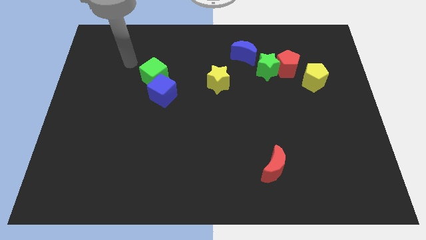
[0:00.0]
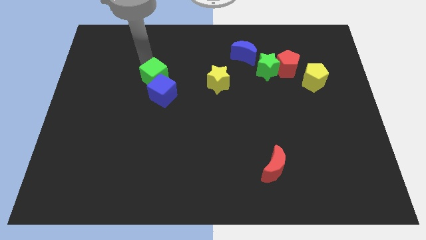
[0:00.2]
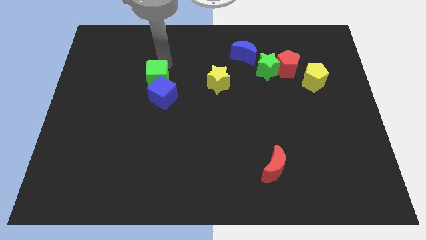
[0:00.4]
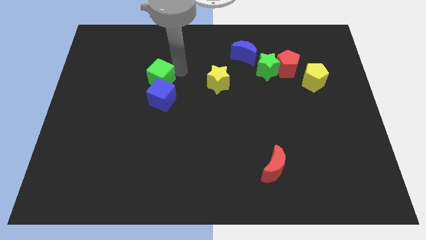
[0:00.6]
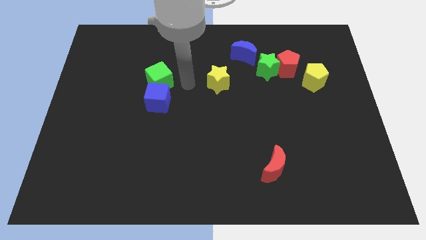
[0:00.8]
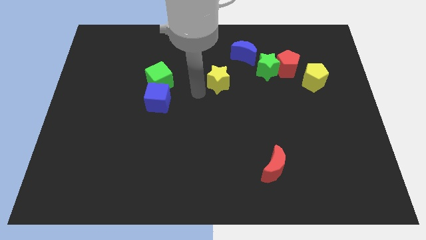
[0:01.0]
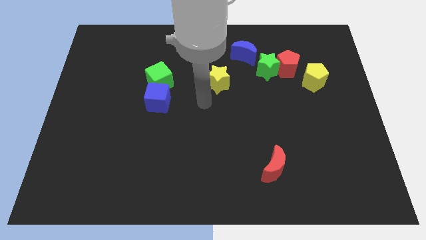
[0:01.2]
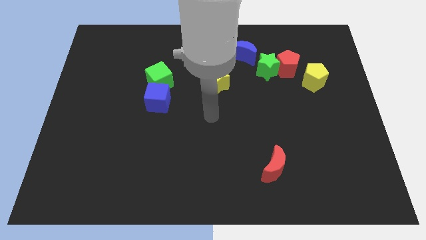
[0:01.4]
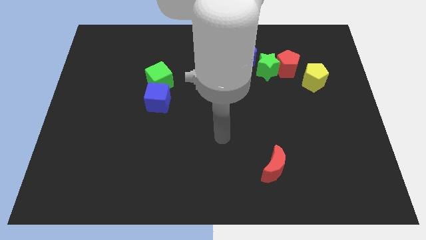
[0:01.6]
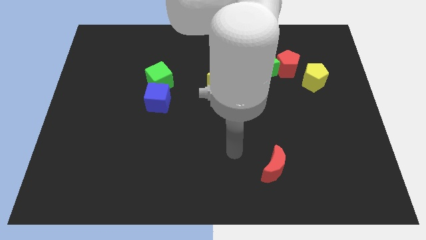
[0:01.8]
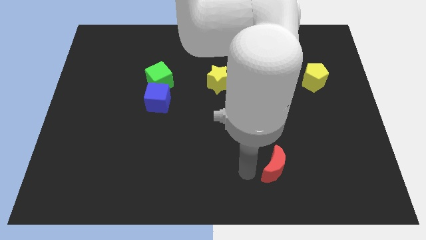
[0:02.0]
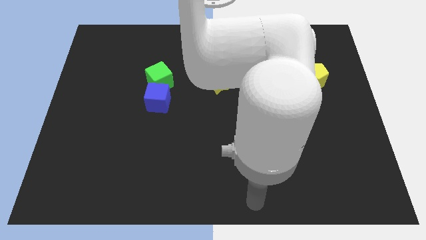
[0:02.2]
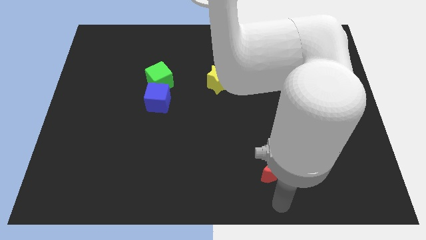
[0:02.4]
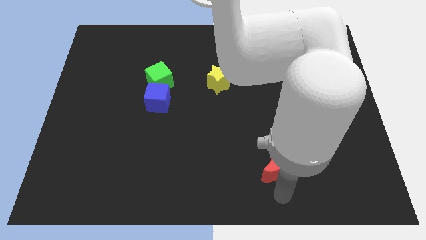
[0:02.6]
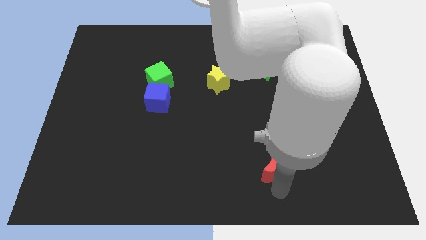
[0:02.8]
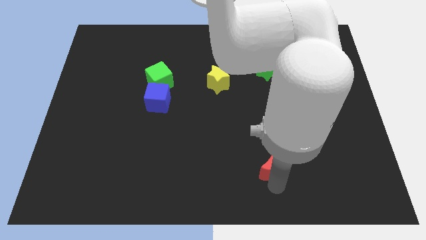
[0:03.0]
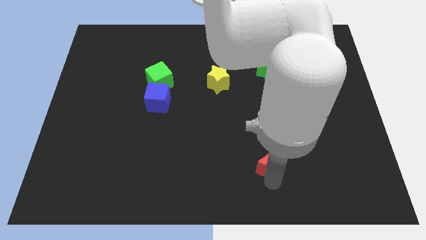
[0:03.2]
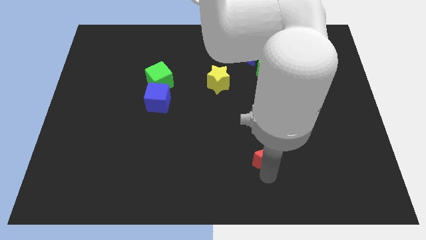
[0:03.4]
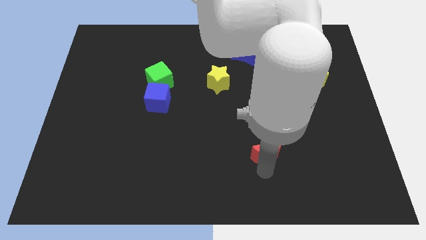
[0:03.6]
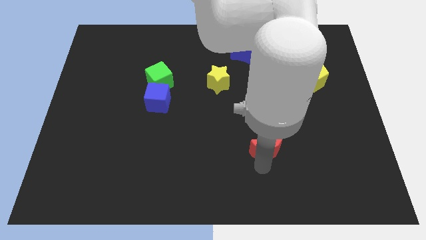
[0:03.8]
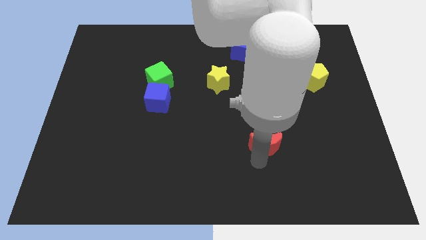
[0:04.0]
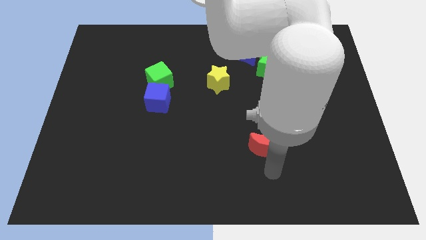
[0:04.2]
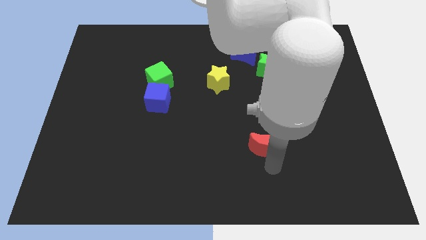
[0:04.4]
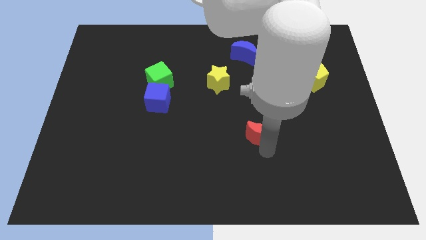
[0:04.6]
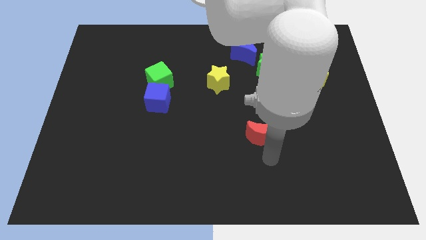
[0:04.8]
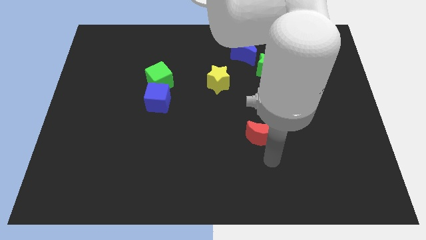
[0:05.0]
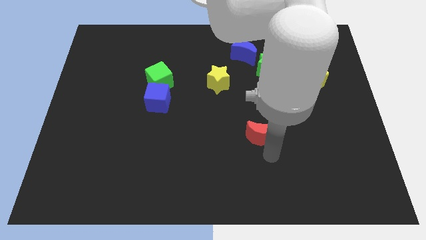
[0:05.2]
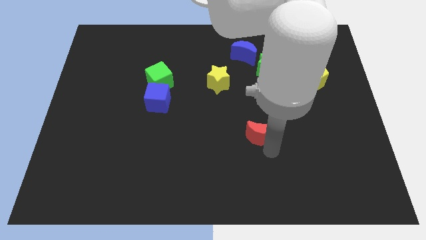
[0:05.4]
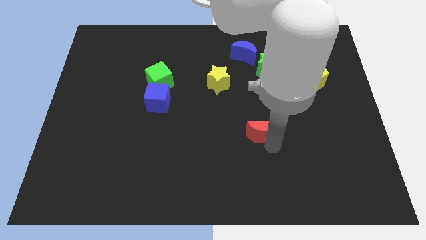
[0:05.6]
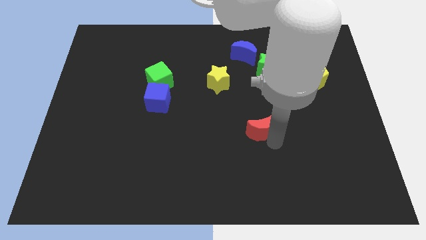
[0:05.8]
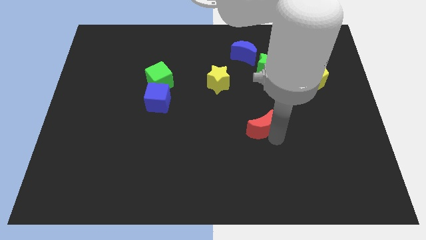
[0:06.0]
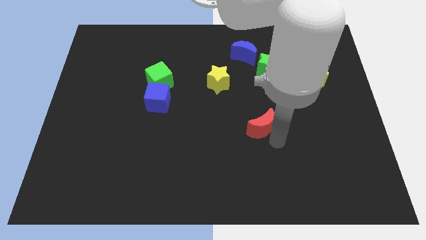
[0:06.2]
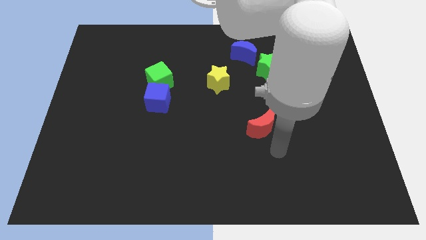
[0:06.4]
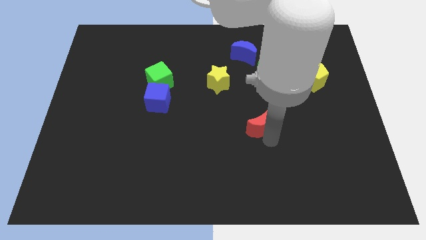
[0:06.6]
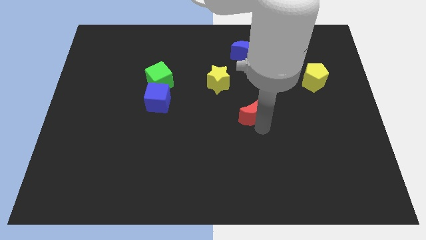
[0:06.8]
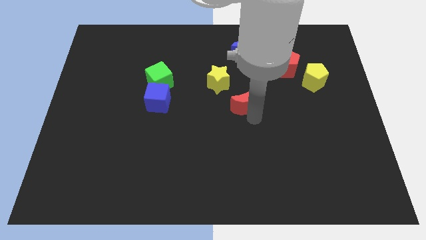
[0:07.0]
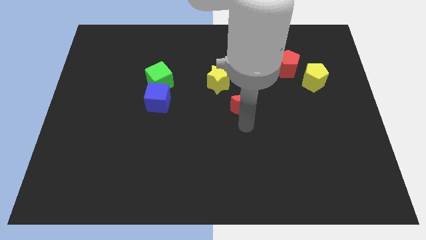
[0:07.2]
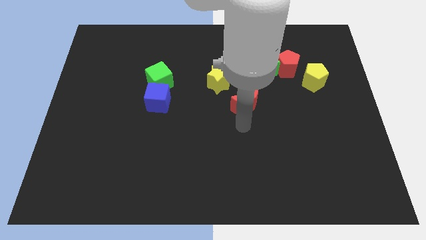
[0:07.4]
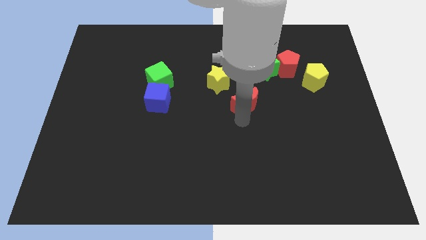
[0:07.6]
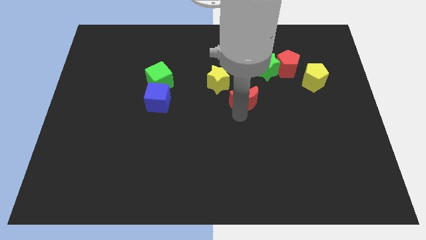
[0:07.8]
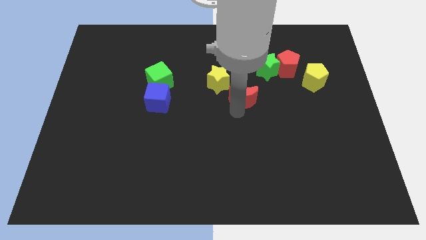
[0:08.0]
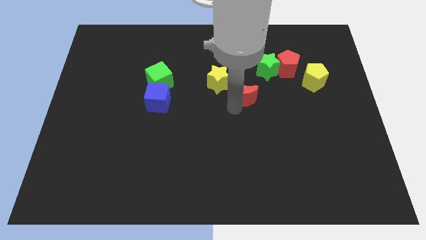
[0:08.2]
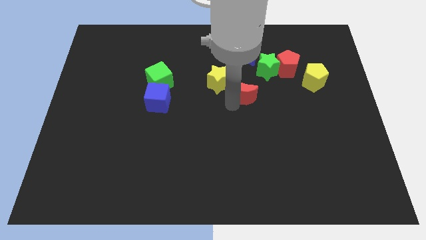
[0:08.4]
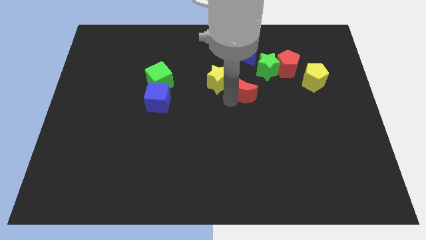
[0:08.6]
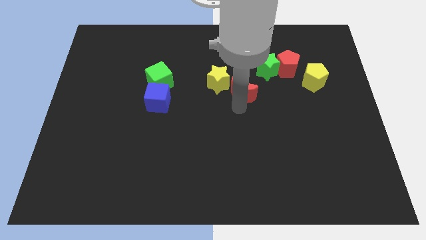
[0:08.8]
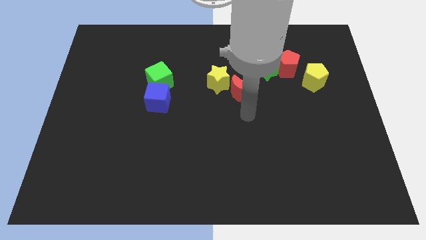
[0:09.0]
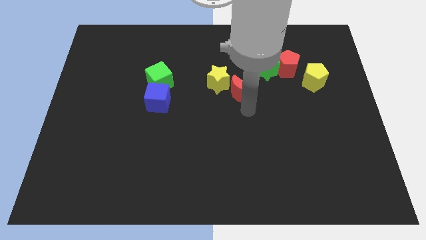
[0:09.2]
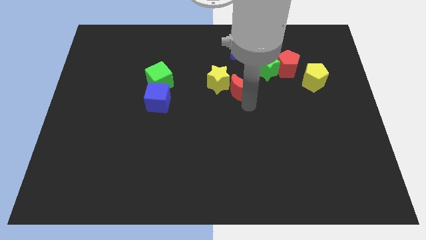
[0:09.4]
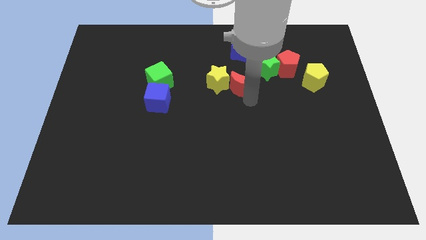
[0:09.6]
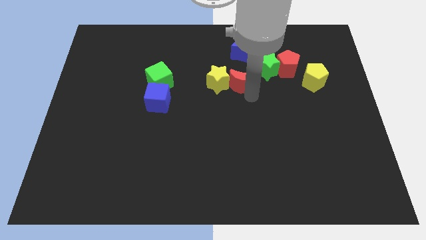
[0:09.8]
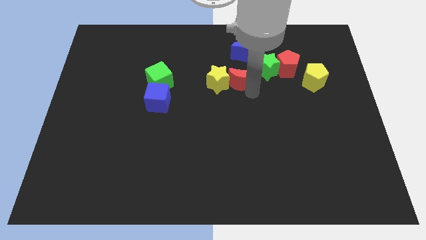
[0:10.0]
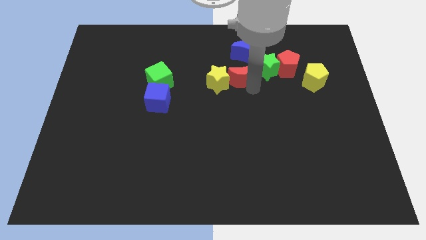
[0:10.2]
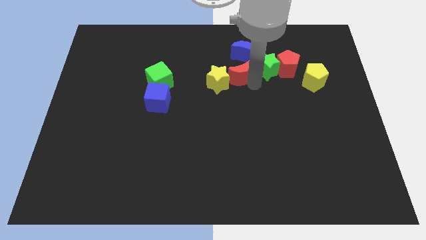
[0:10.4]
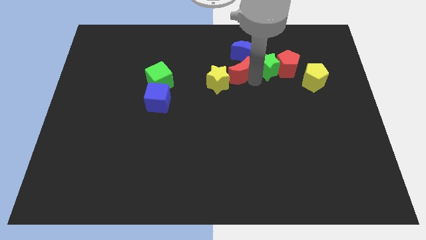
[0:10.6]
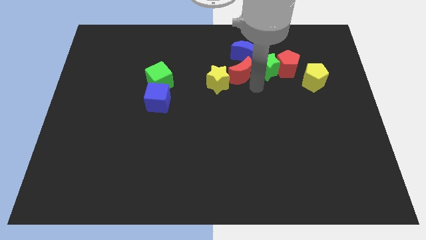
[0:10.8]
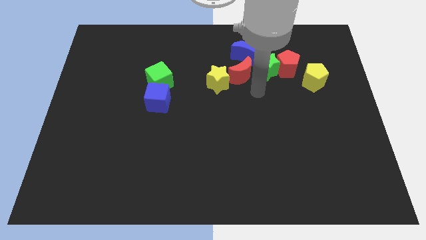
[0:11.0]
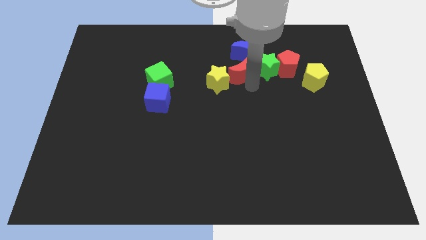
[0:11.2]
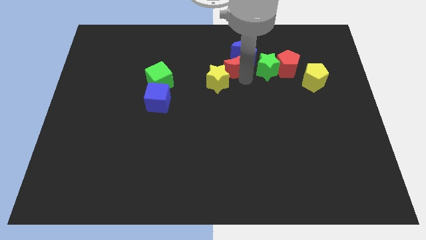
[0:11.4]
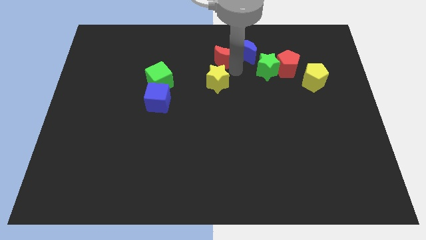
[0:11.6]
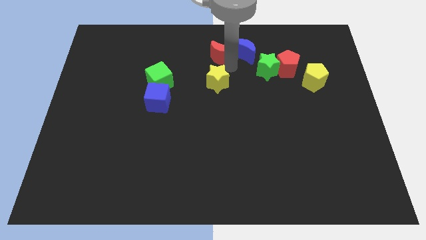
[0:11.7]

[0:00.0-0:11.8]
put the red moon to the top
